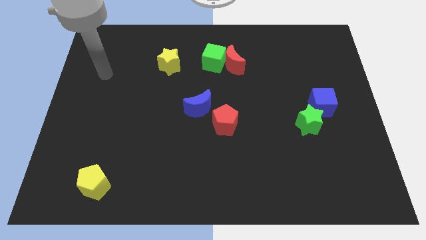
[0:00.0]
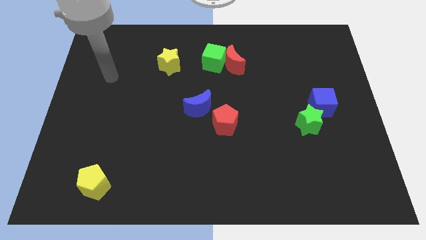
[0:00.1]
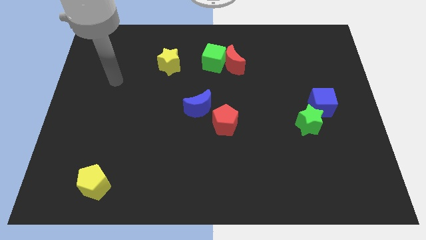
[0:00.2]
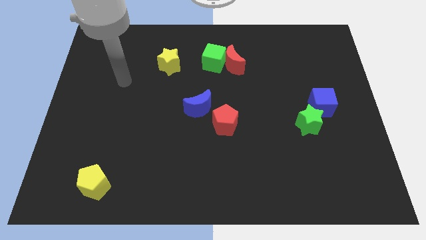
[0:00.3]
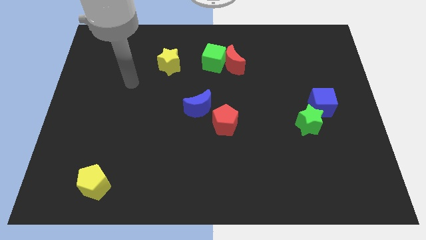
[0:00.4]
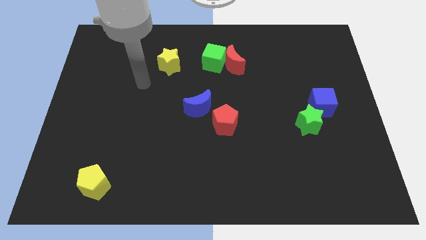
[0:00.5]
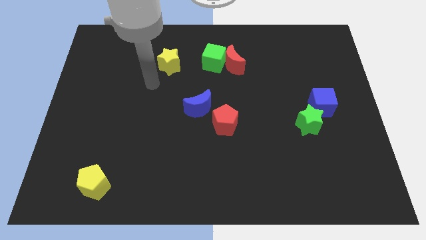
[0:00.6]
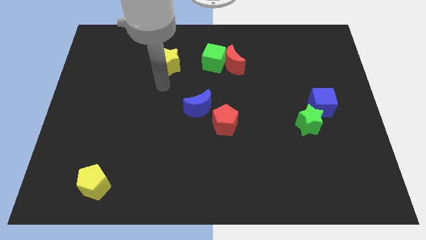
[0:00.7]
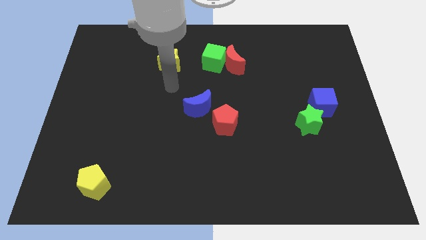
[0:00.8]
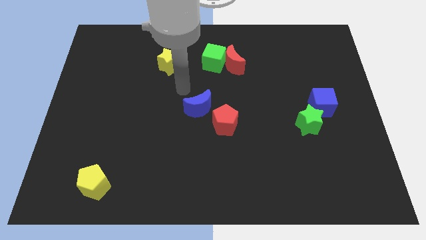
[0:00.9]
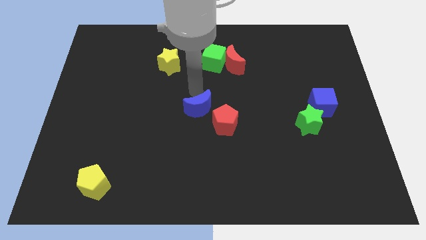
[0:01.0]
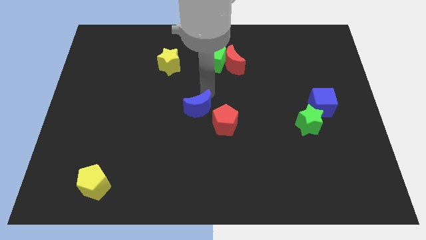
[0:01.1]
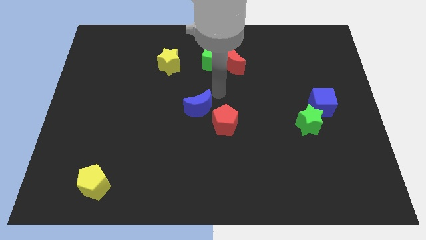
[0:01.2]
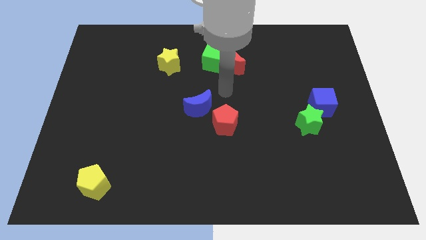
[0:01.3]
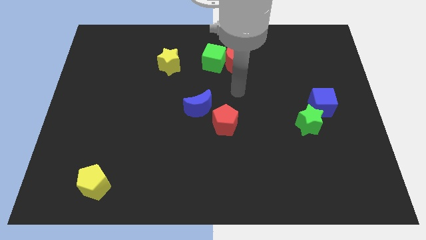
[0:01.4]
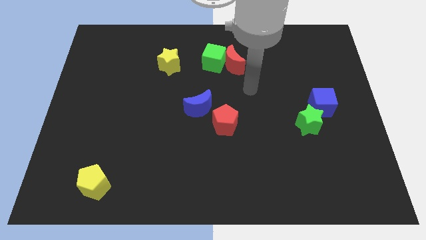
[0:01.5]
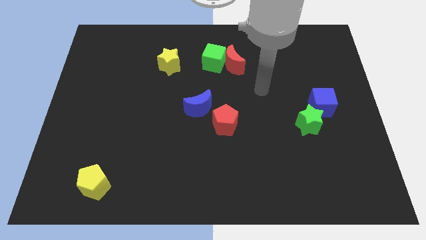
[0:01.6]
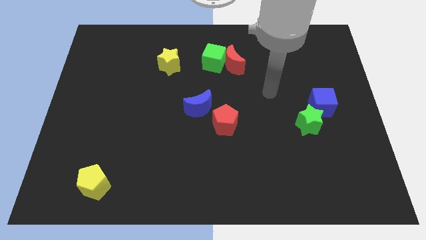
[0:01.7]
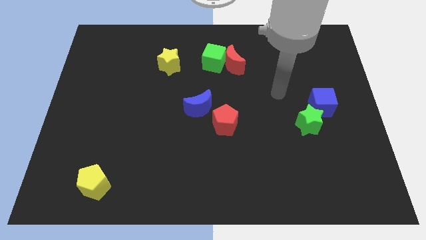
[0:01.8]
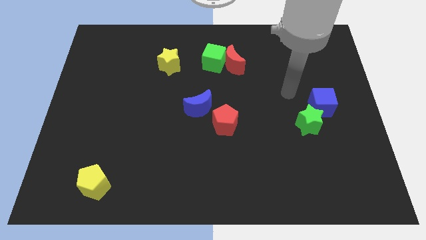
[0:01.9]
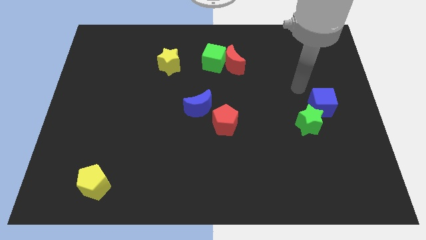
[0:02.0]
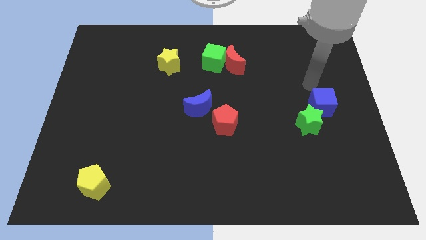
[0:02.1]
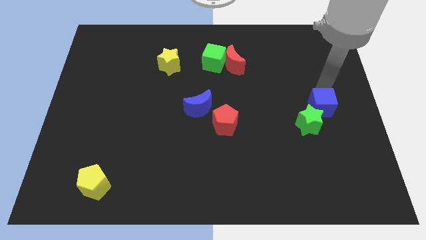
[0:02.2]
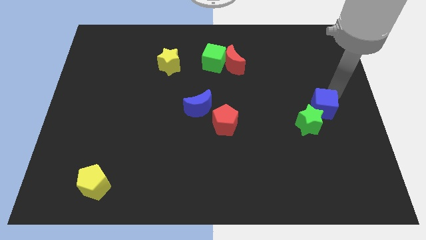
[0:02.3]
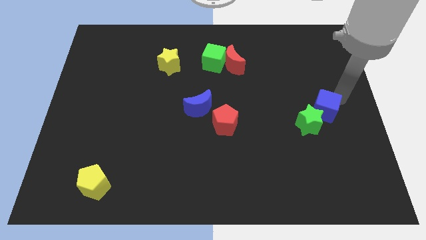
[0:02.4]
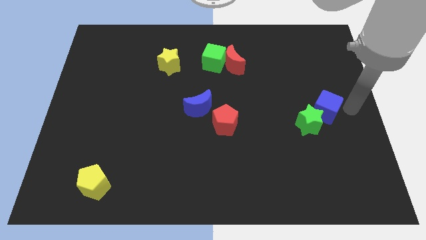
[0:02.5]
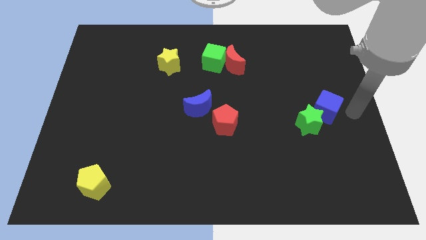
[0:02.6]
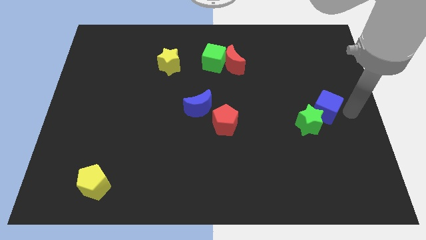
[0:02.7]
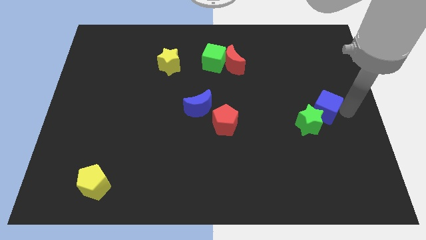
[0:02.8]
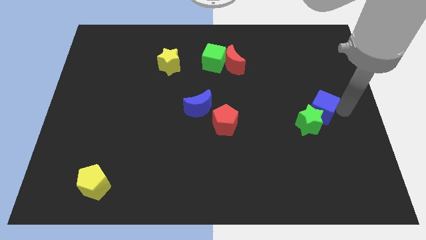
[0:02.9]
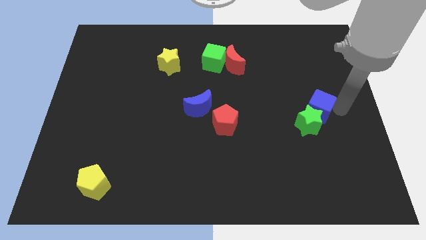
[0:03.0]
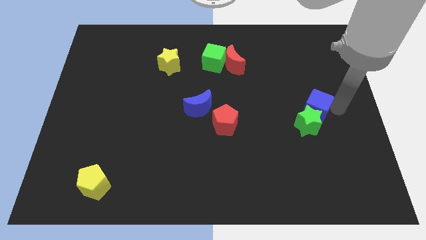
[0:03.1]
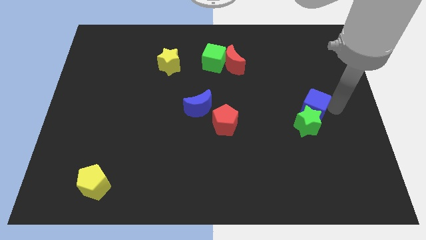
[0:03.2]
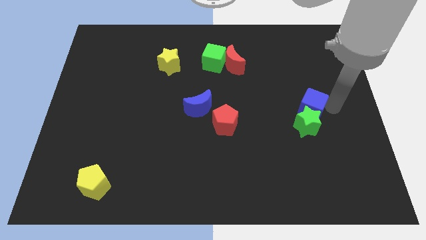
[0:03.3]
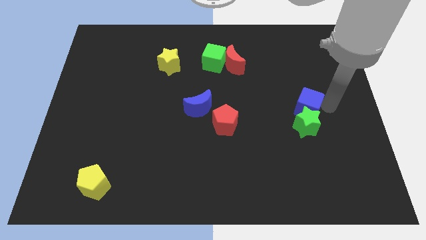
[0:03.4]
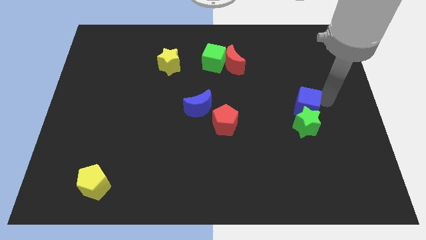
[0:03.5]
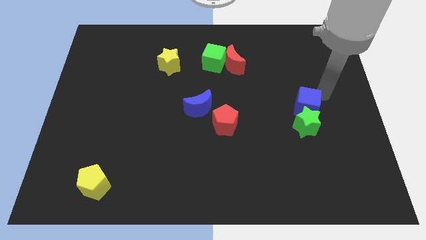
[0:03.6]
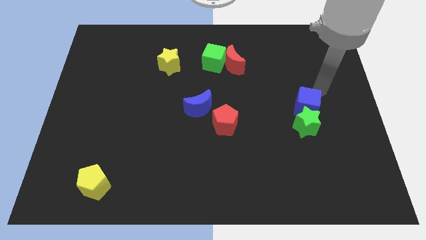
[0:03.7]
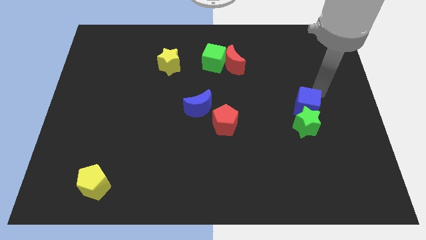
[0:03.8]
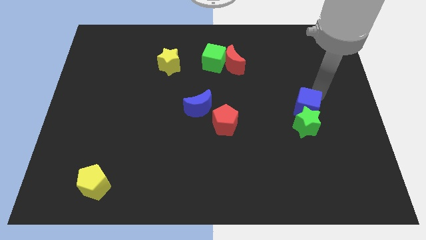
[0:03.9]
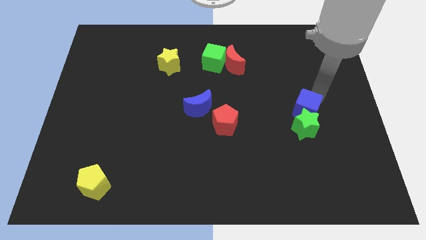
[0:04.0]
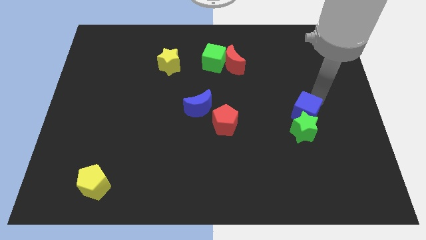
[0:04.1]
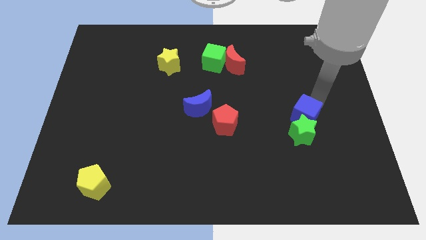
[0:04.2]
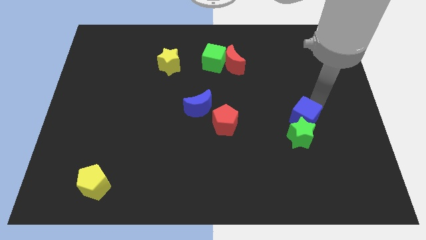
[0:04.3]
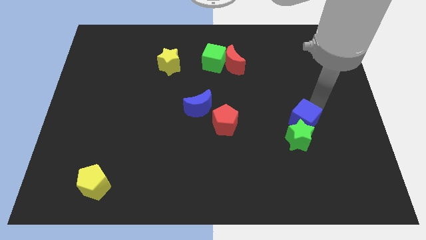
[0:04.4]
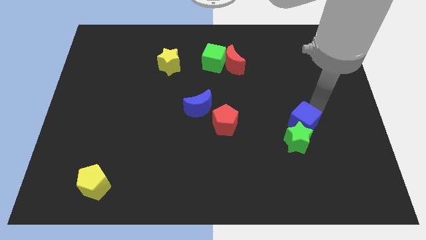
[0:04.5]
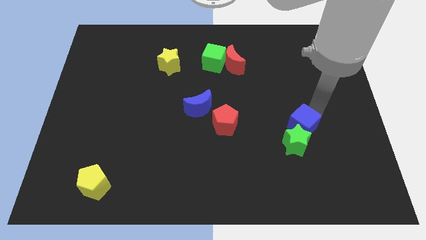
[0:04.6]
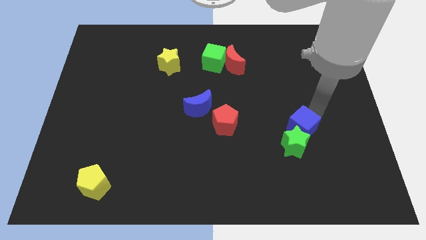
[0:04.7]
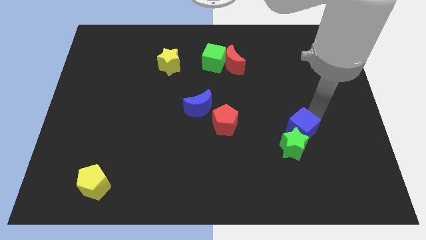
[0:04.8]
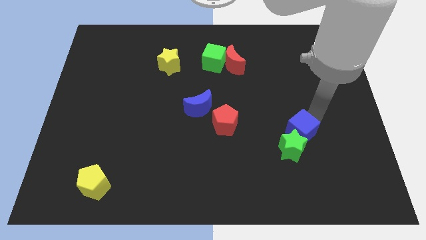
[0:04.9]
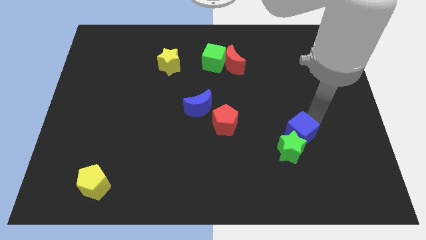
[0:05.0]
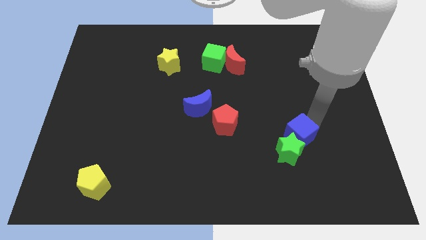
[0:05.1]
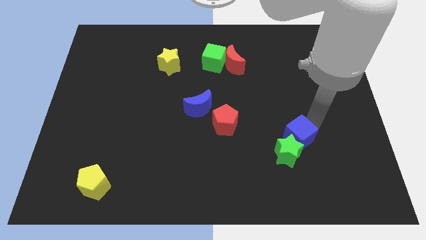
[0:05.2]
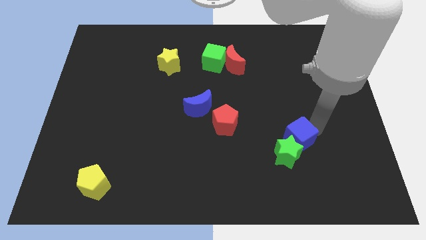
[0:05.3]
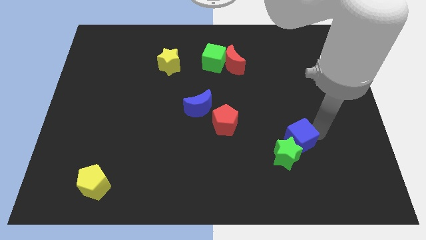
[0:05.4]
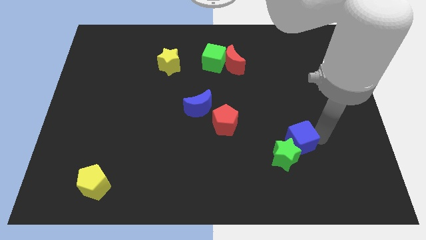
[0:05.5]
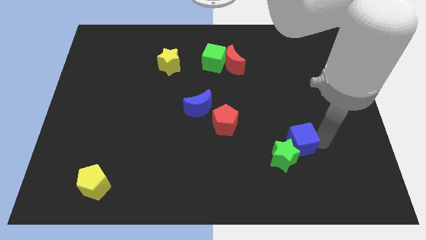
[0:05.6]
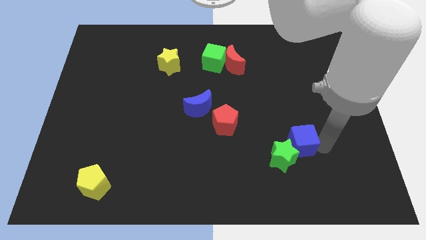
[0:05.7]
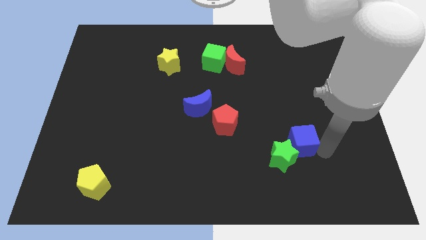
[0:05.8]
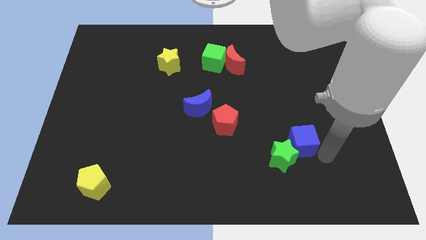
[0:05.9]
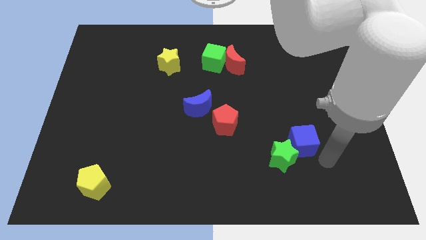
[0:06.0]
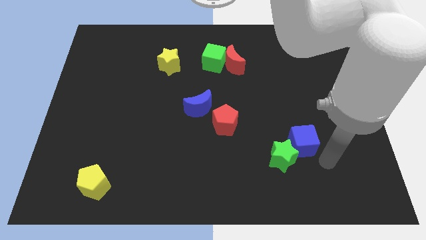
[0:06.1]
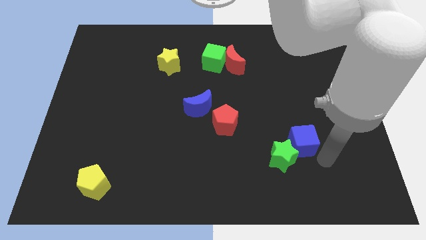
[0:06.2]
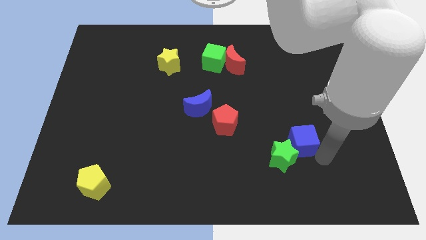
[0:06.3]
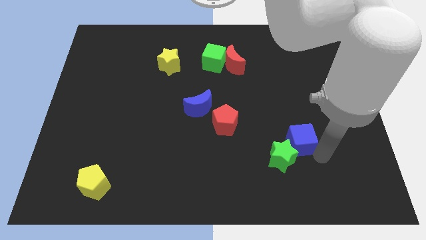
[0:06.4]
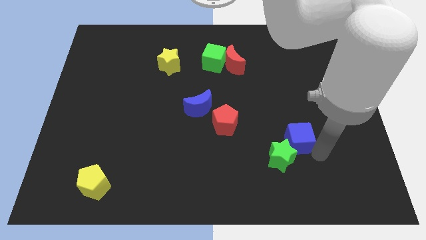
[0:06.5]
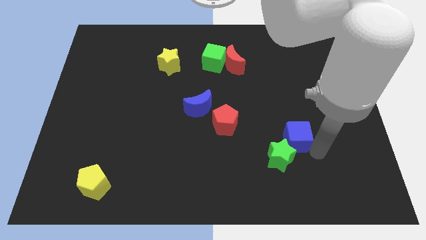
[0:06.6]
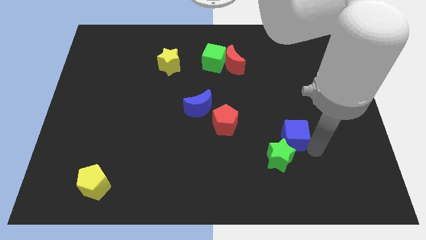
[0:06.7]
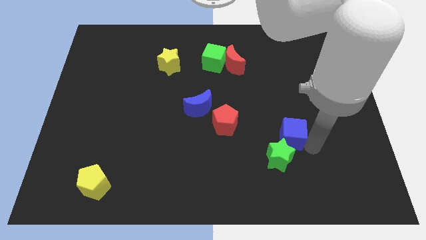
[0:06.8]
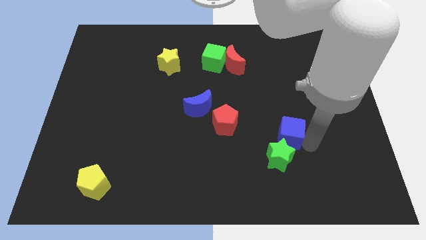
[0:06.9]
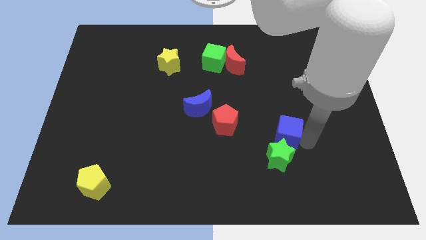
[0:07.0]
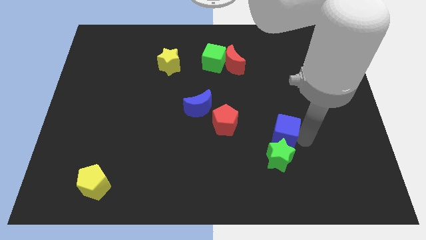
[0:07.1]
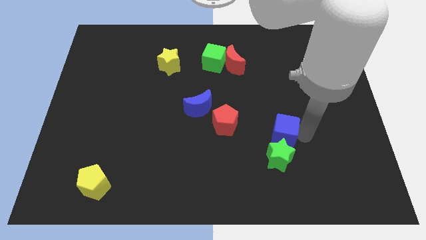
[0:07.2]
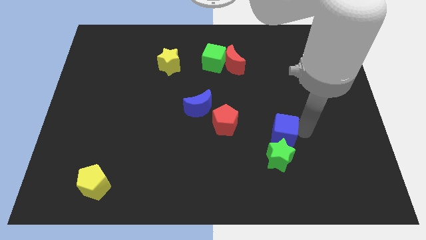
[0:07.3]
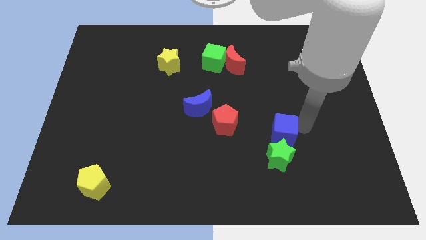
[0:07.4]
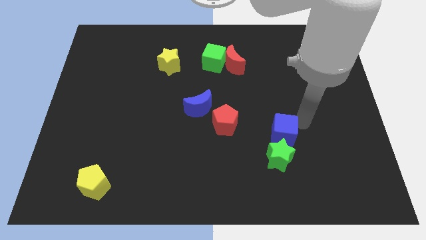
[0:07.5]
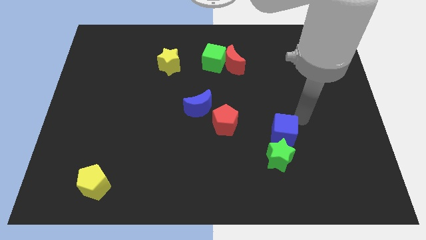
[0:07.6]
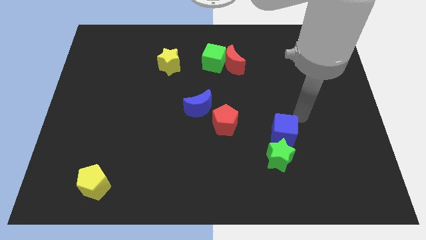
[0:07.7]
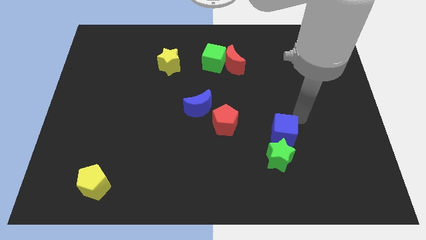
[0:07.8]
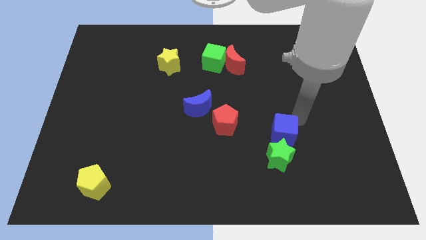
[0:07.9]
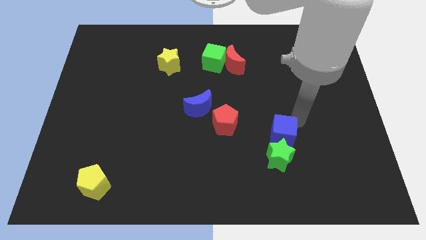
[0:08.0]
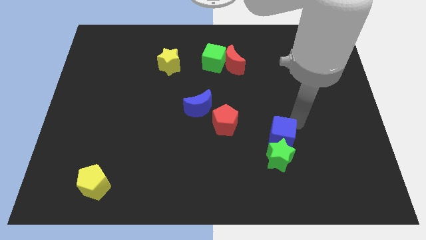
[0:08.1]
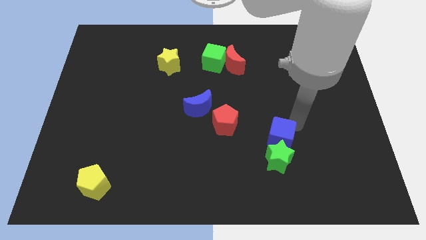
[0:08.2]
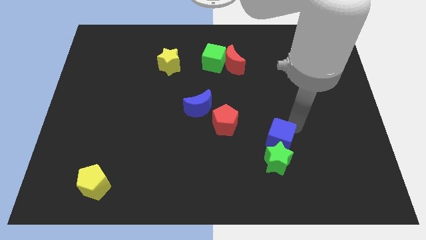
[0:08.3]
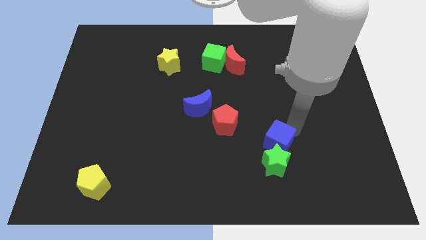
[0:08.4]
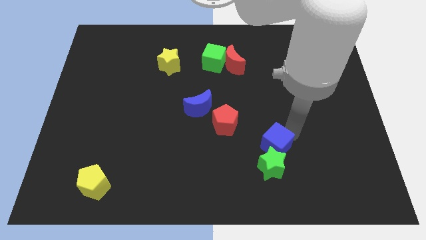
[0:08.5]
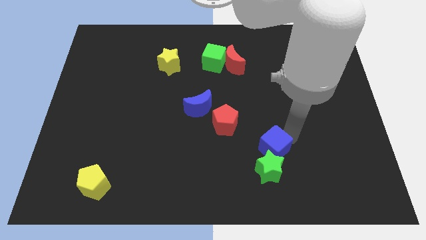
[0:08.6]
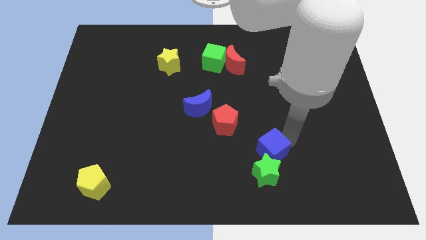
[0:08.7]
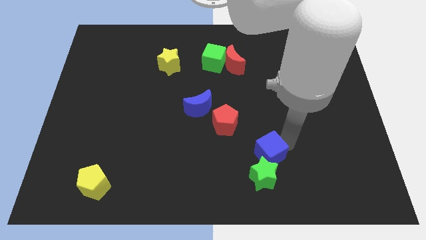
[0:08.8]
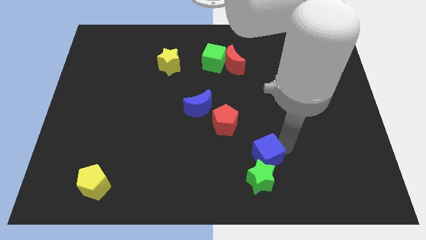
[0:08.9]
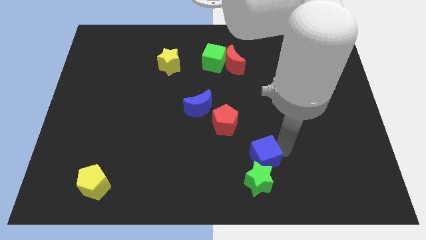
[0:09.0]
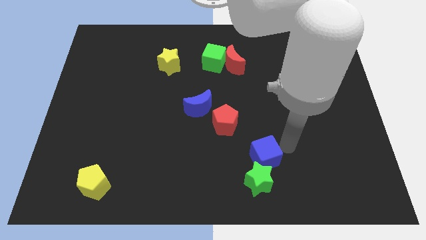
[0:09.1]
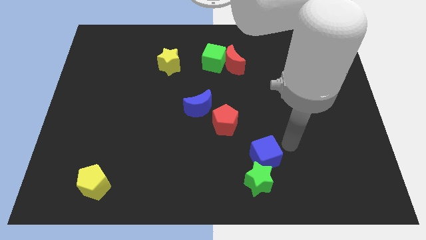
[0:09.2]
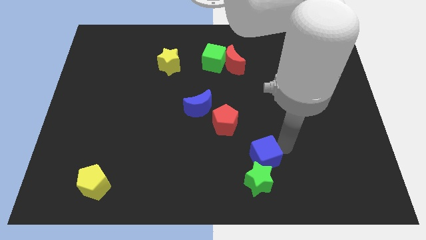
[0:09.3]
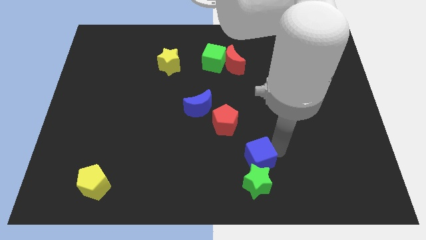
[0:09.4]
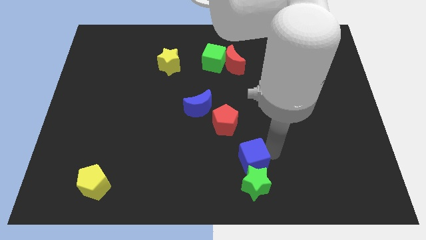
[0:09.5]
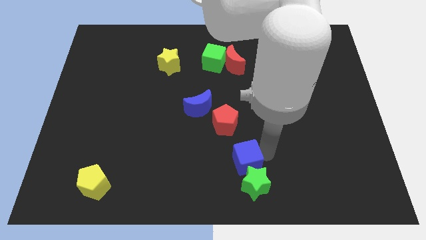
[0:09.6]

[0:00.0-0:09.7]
move the blue cube to the bottom
